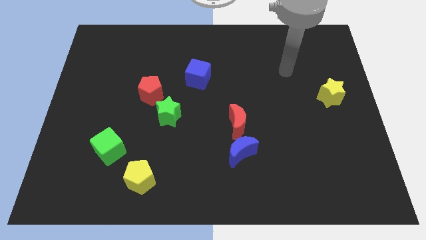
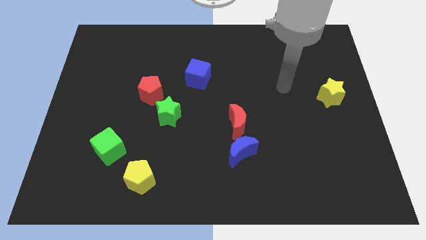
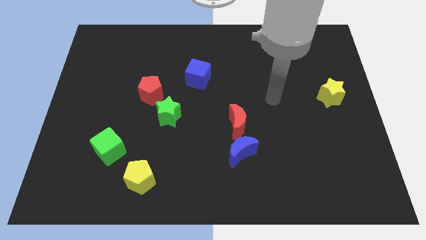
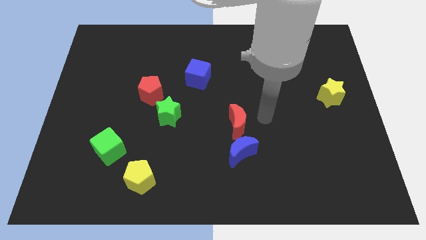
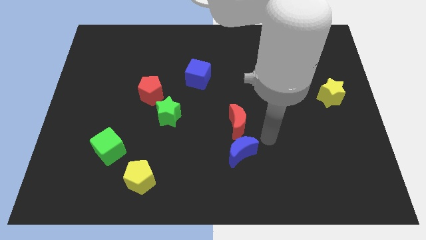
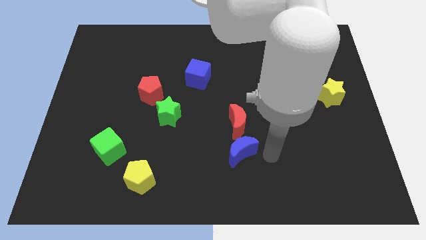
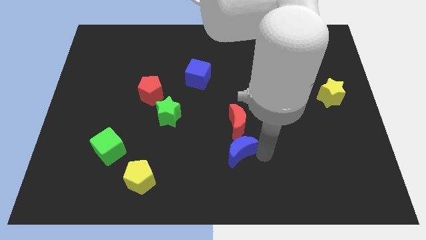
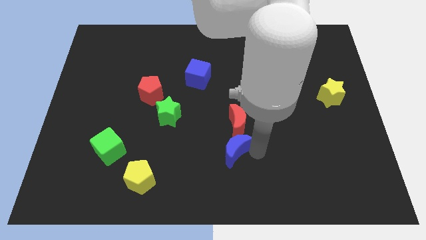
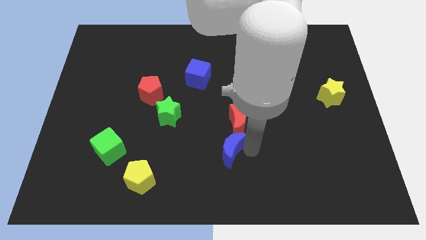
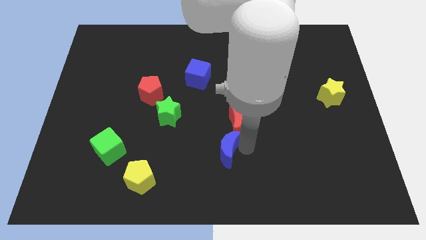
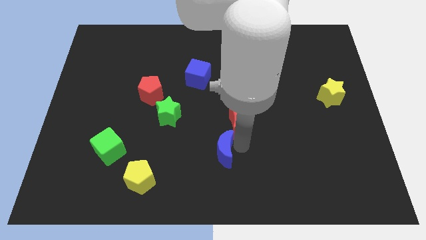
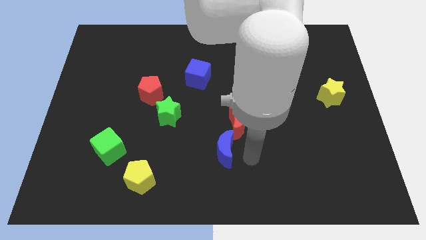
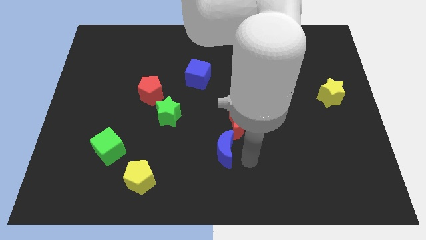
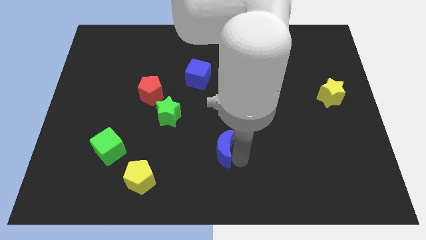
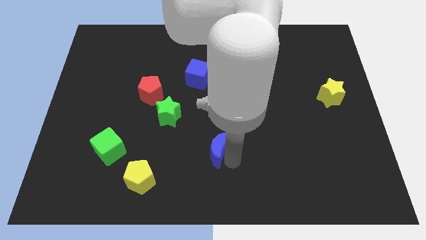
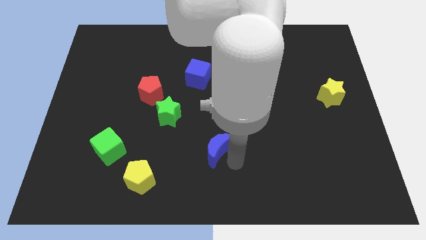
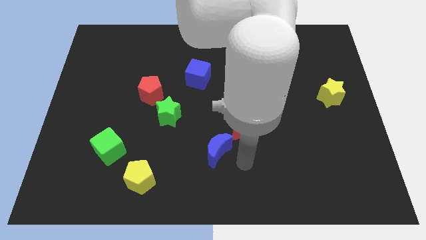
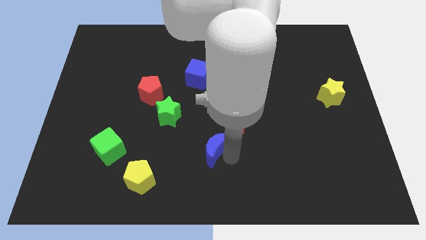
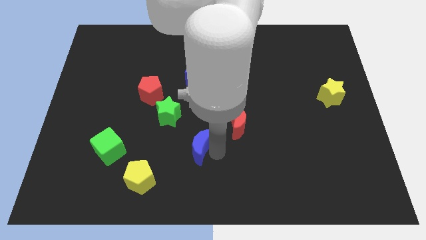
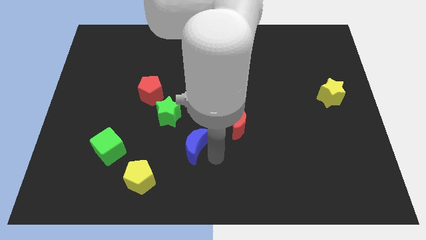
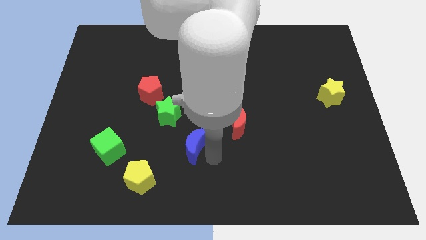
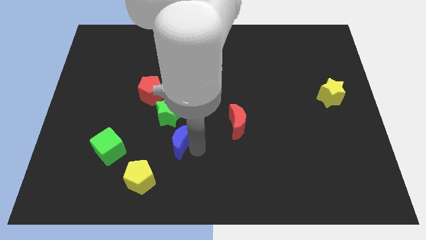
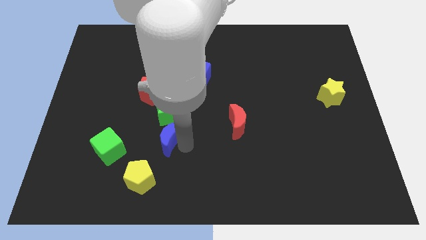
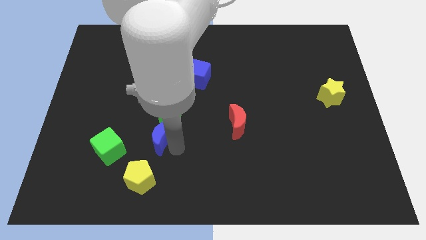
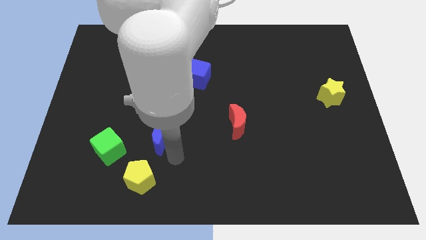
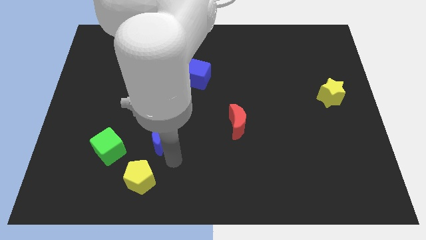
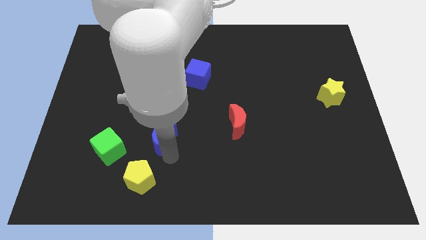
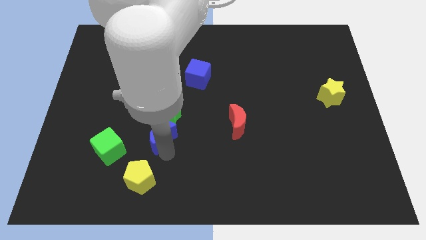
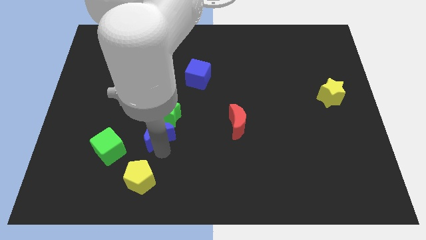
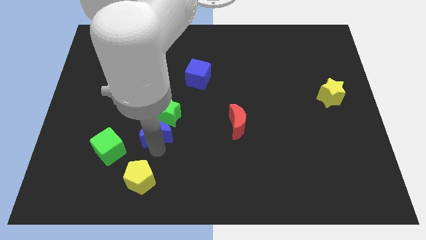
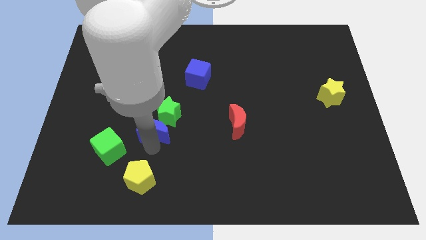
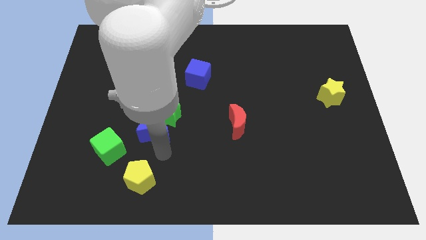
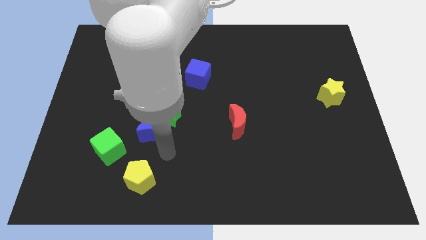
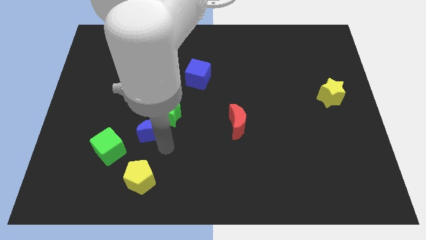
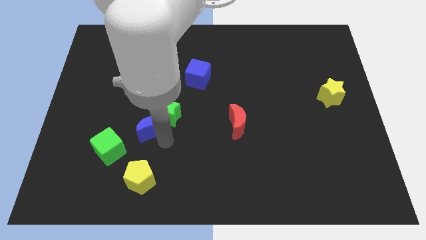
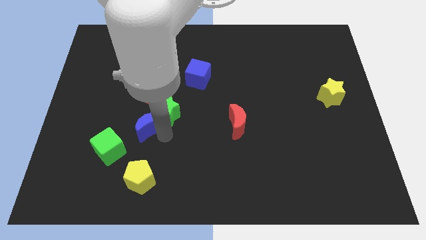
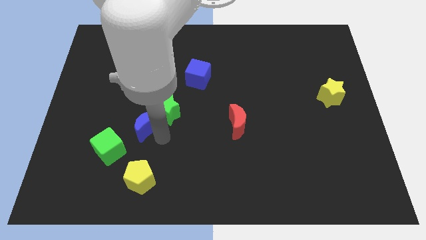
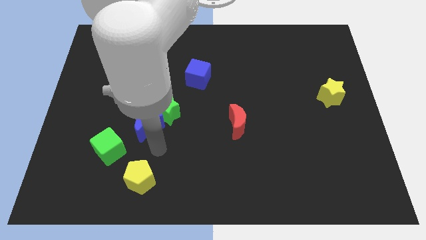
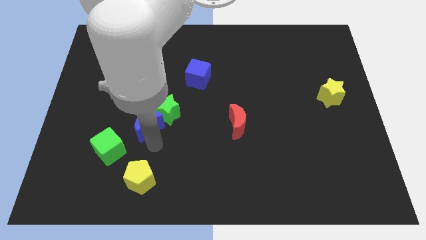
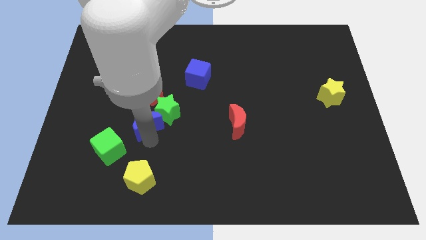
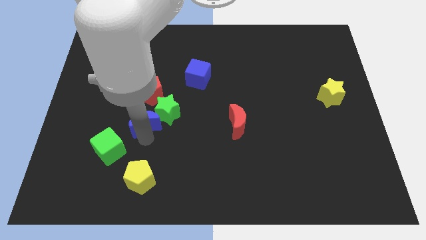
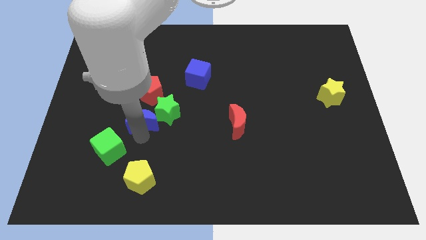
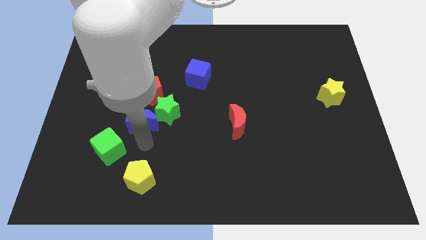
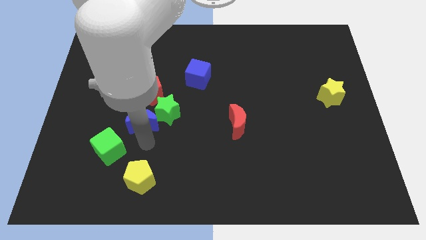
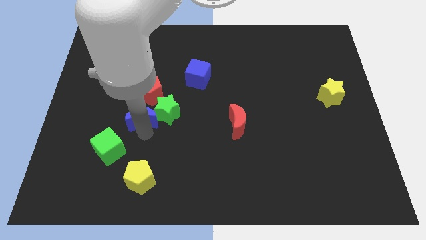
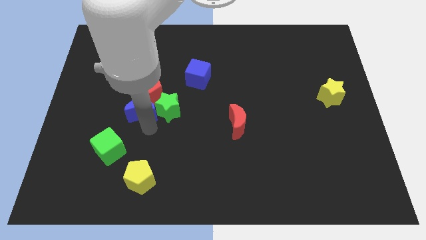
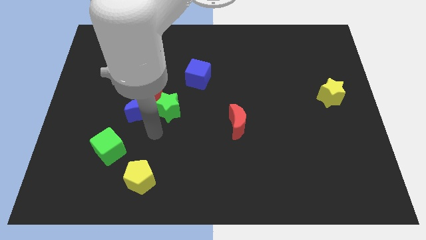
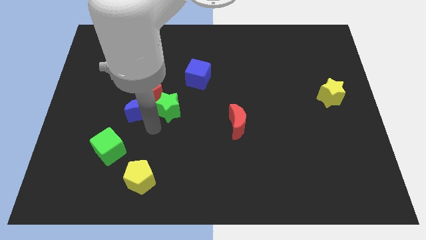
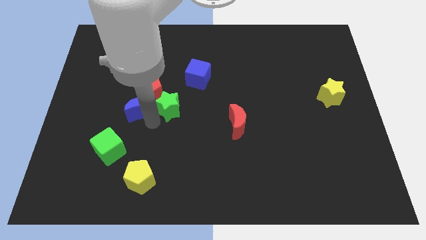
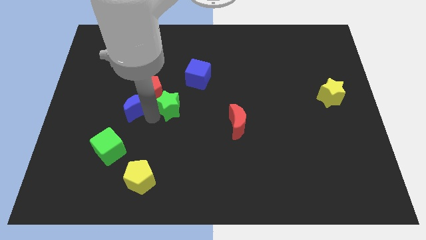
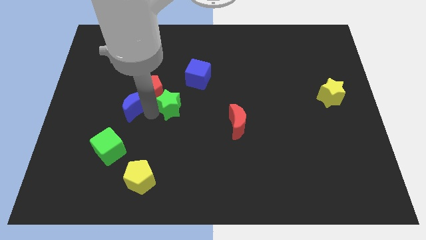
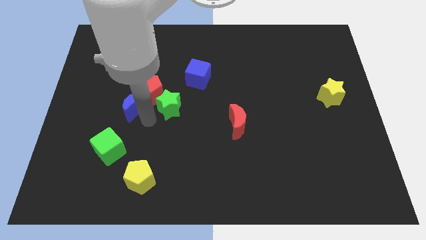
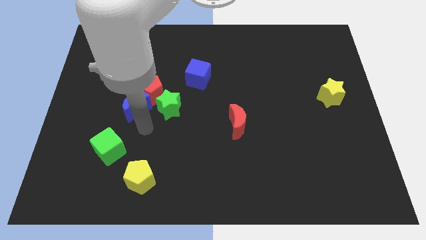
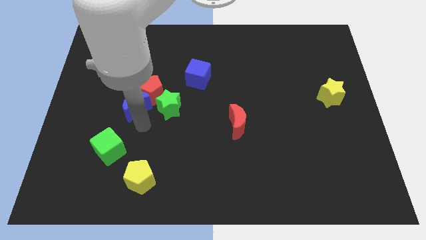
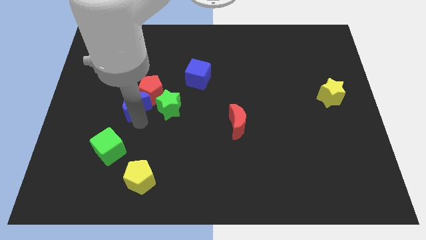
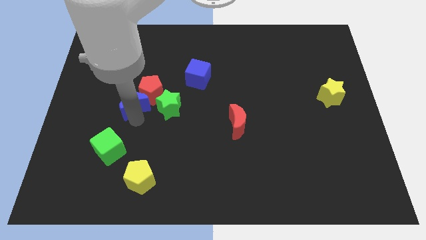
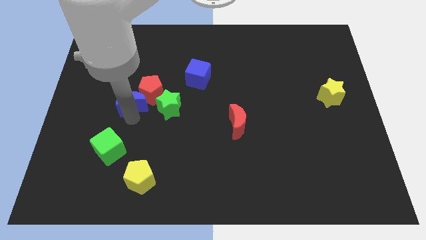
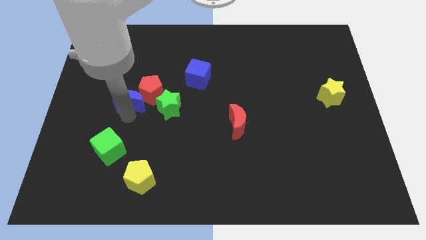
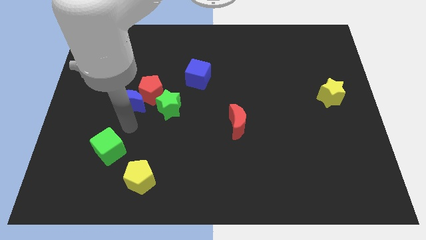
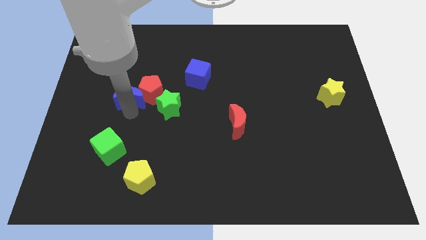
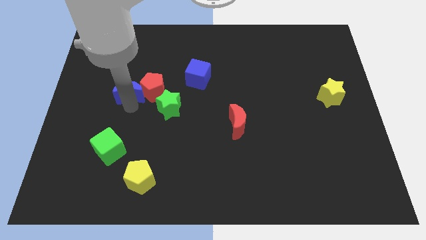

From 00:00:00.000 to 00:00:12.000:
push the blue moon to the top left of the red pentagon

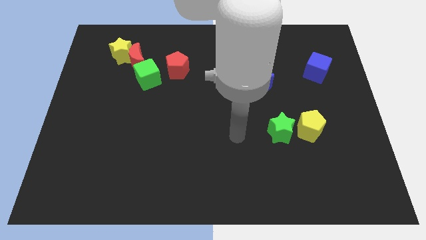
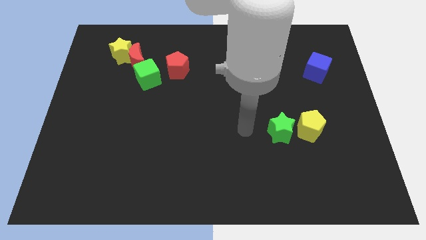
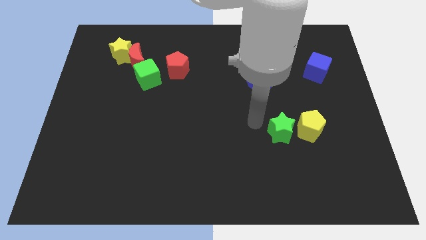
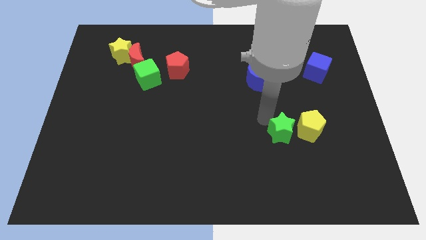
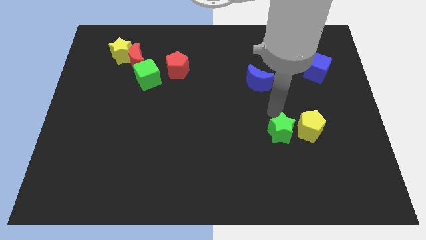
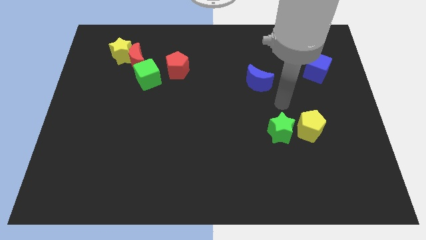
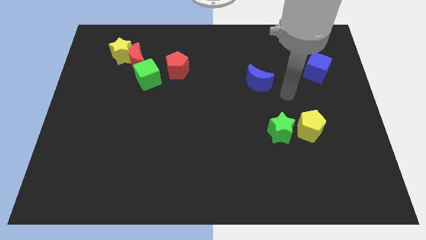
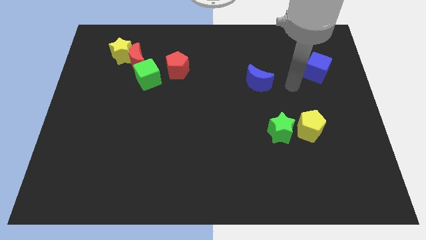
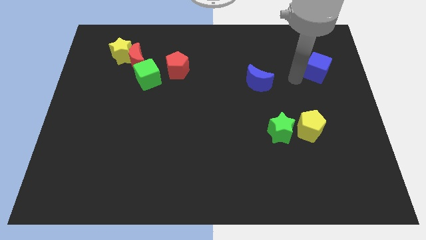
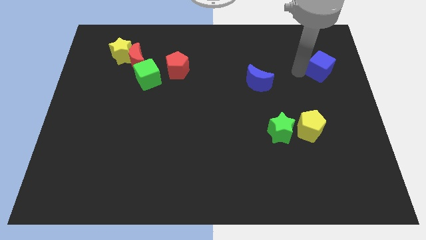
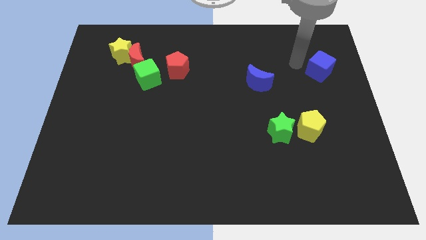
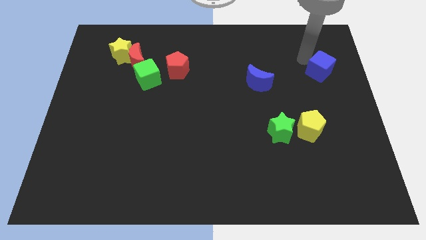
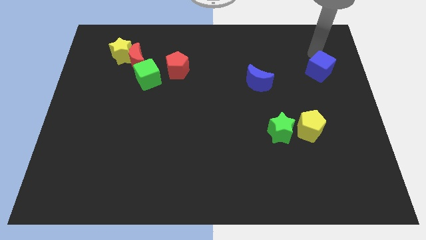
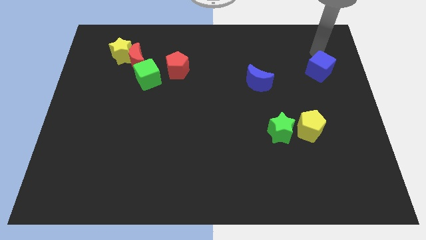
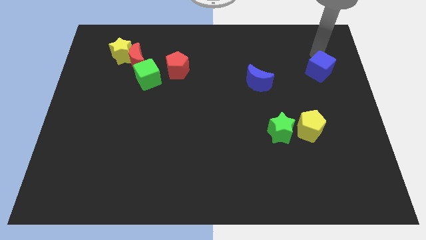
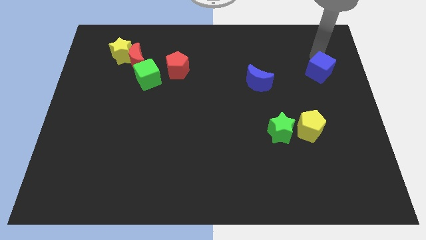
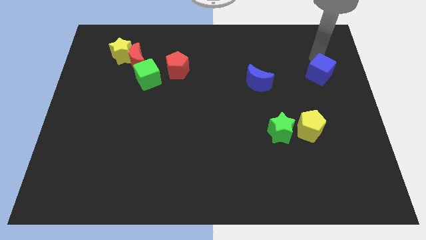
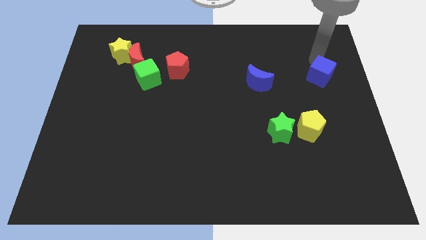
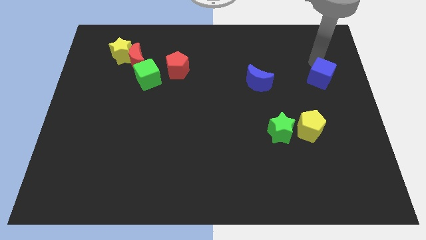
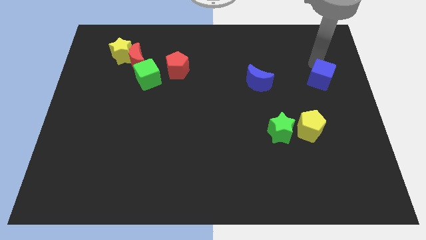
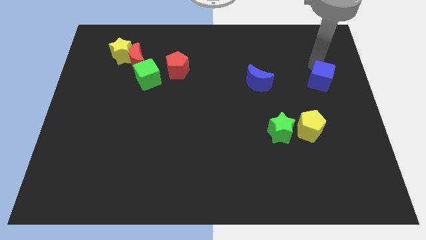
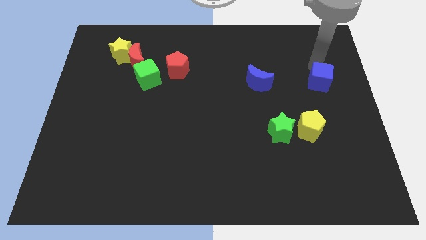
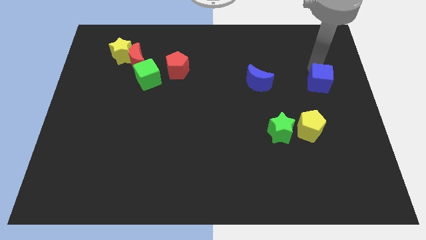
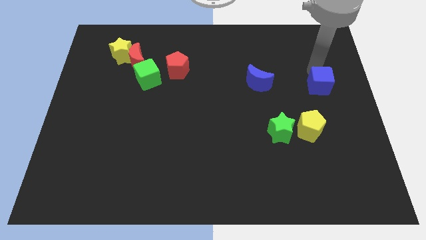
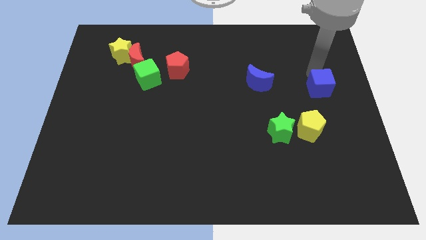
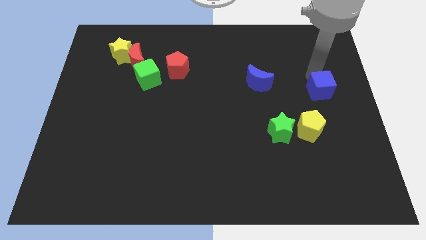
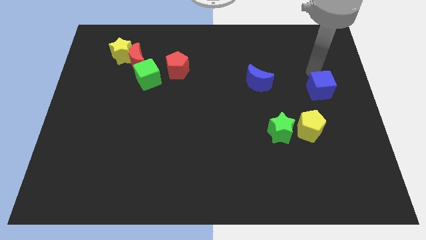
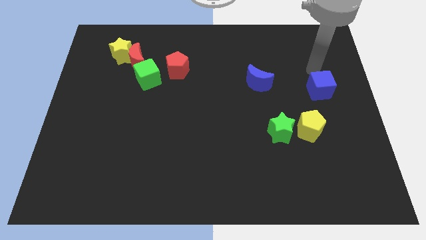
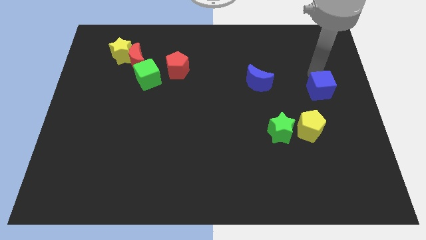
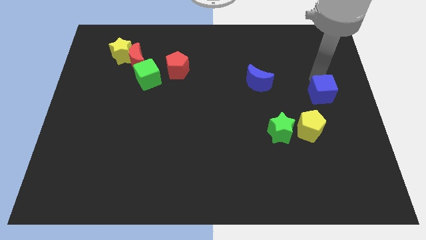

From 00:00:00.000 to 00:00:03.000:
slide the blue cube to the top right of the yellow pentagon
